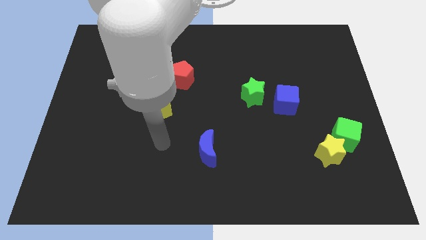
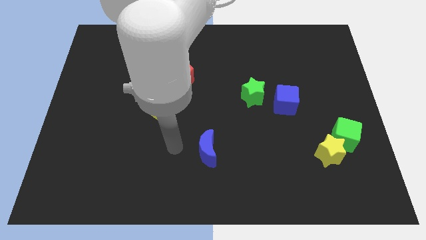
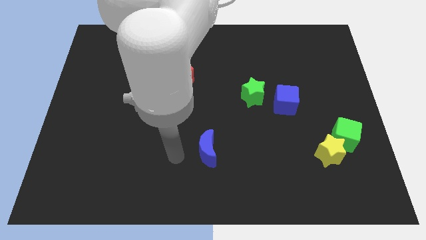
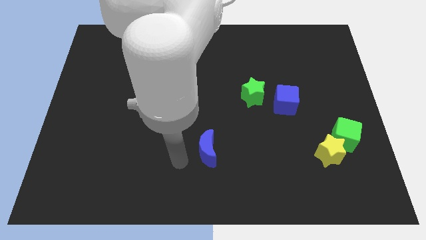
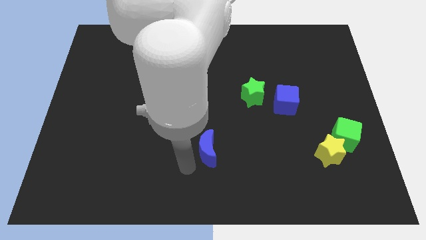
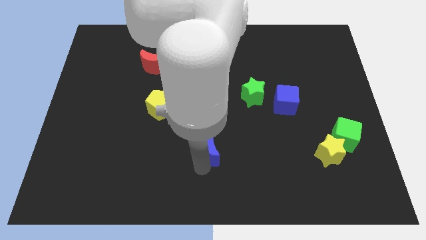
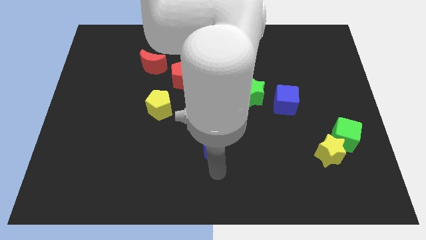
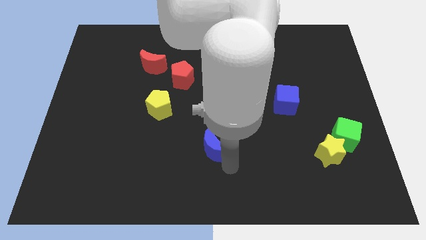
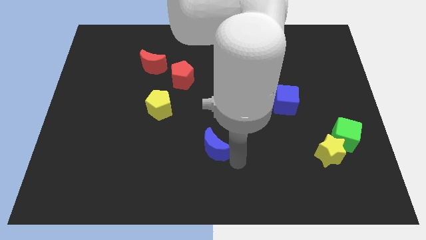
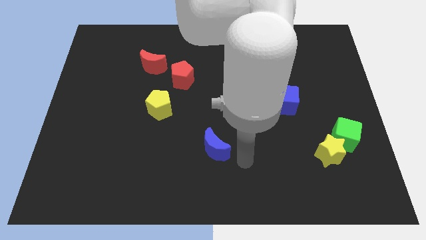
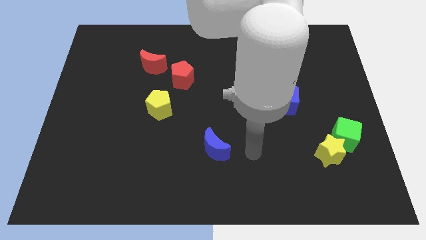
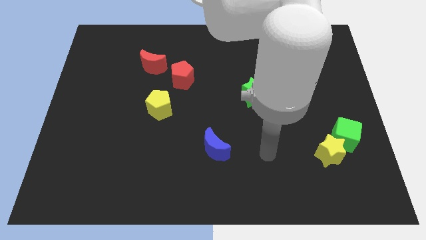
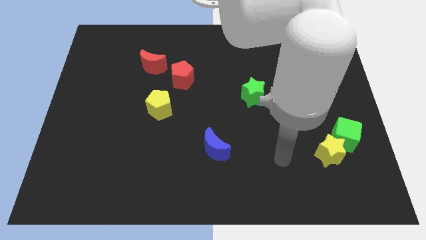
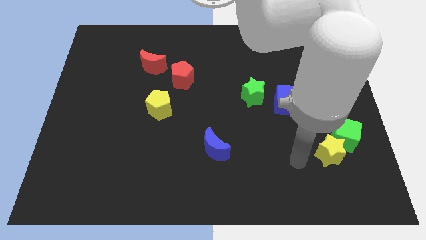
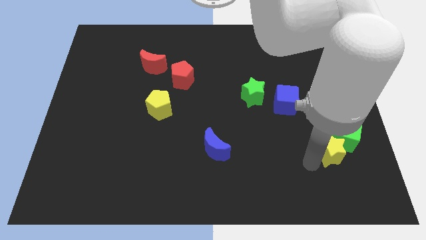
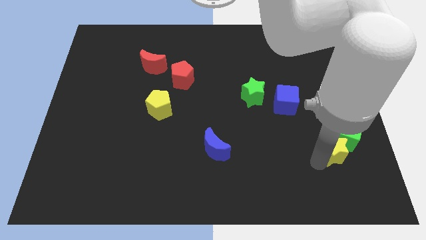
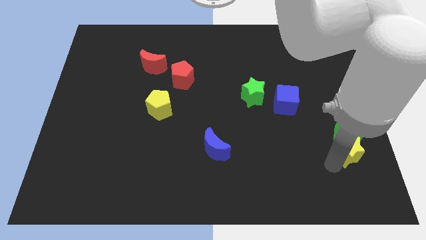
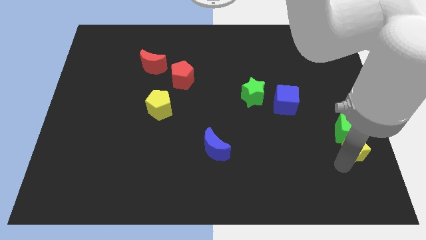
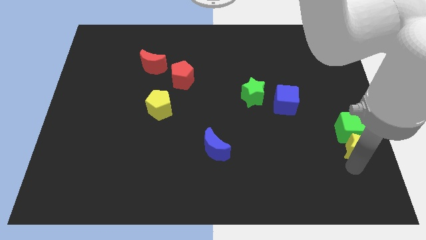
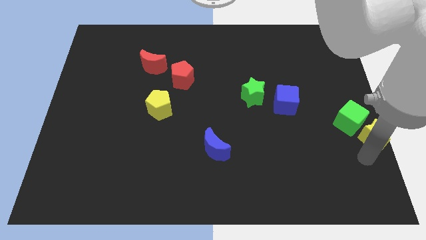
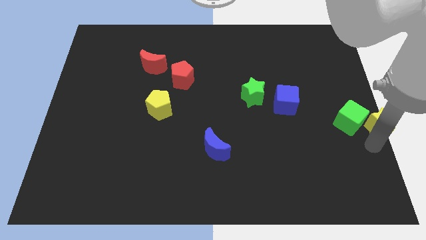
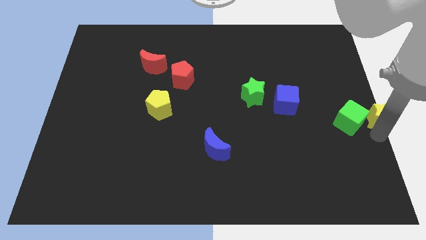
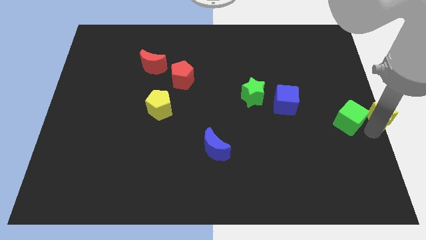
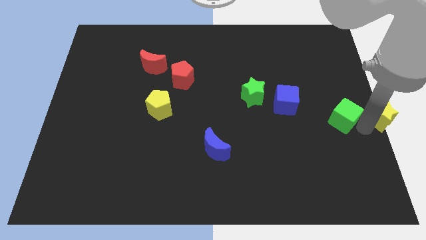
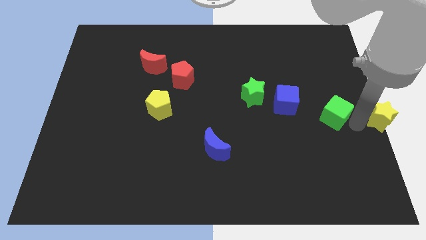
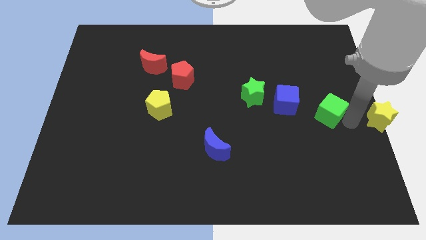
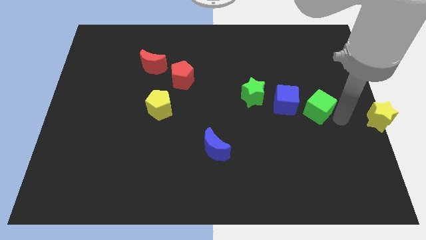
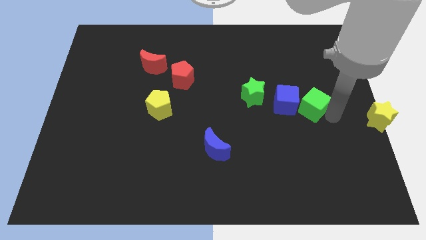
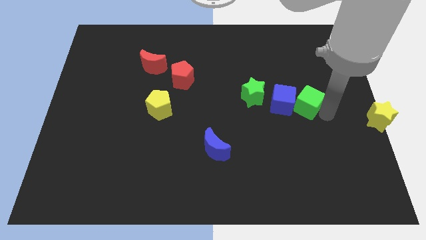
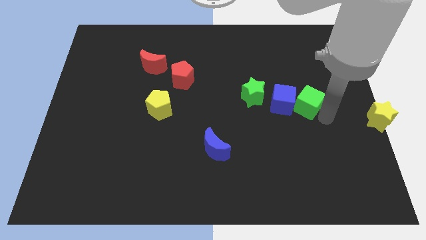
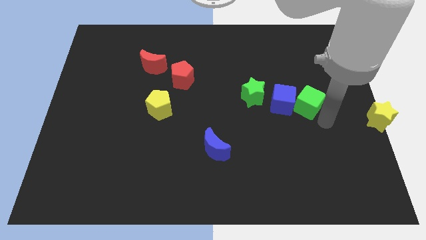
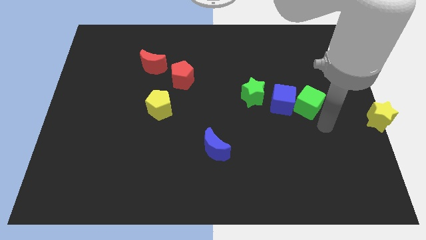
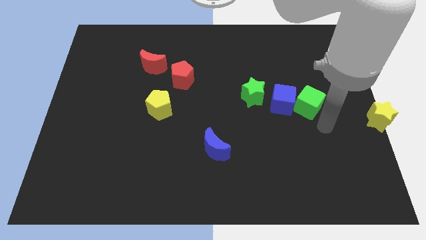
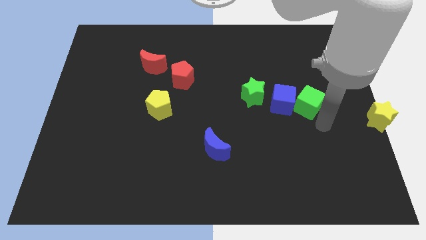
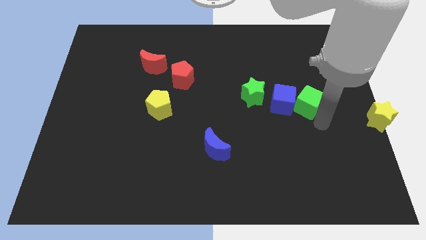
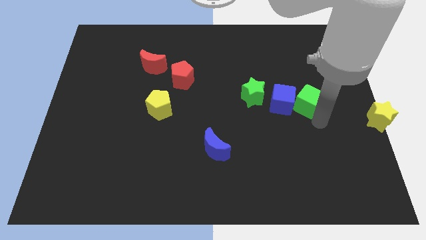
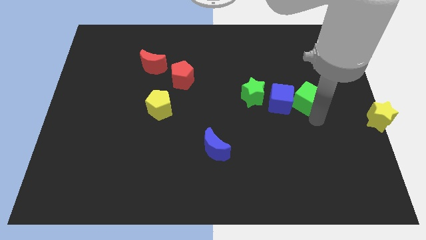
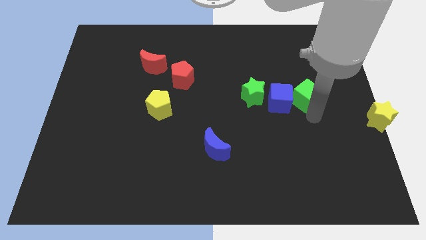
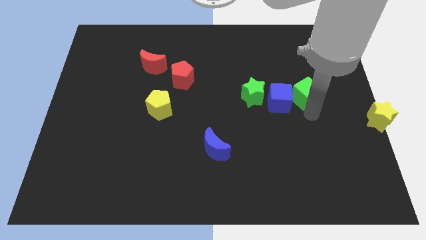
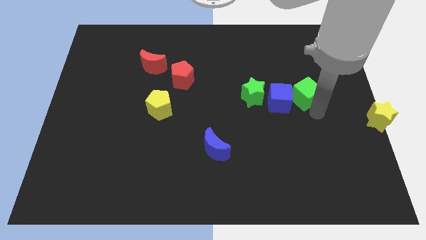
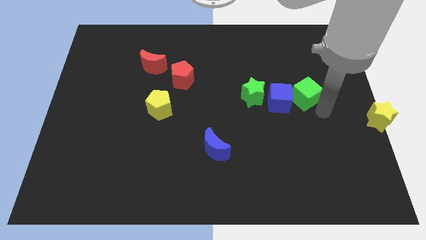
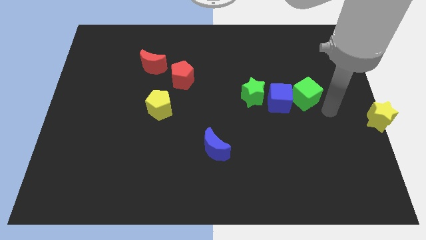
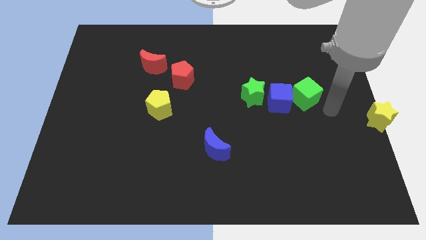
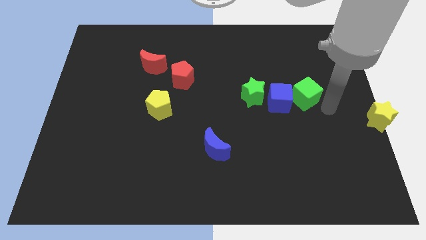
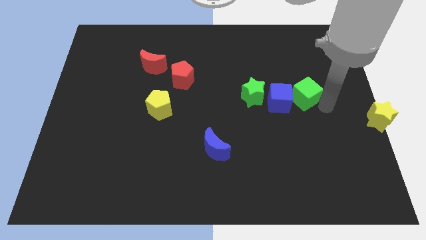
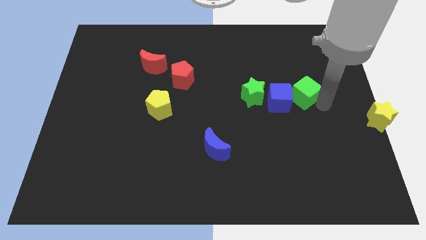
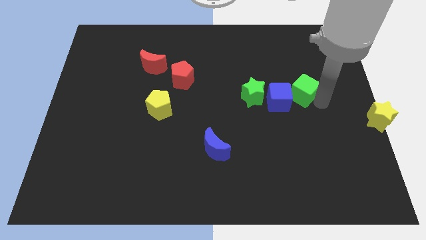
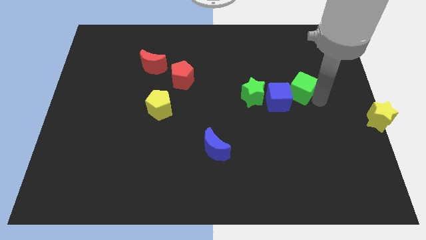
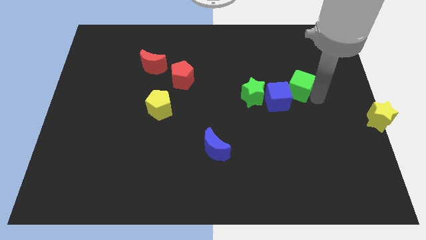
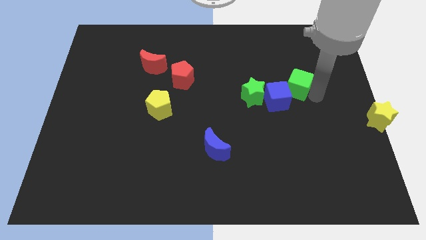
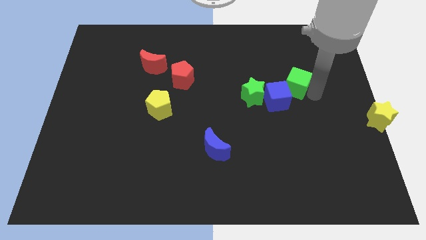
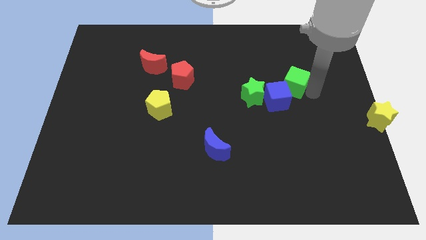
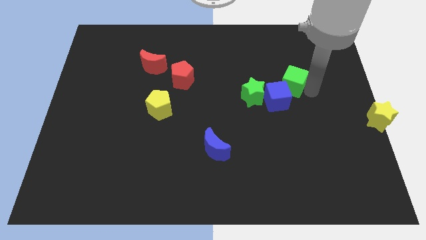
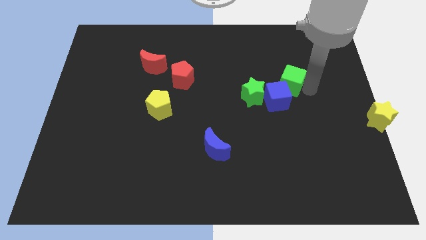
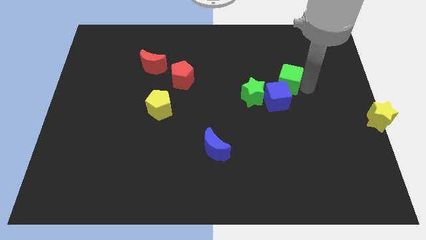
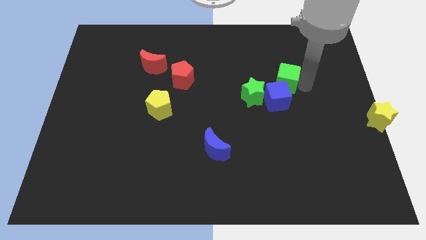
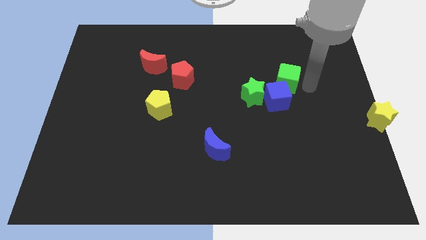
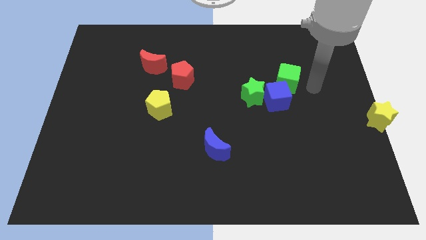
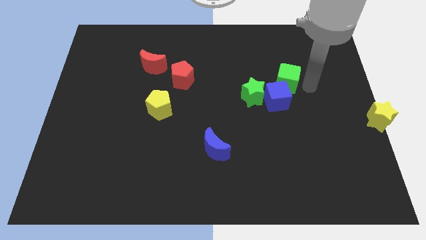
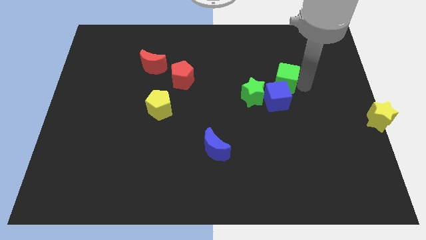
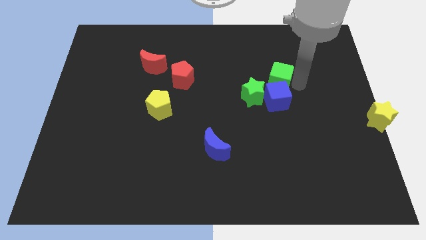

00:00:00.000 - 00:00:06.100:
slide the green cube upwards and to the left

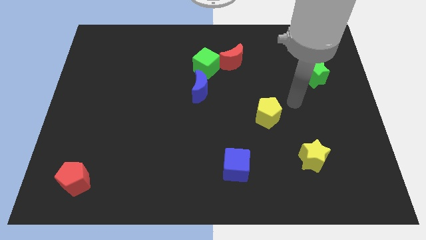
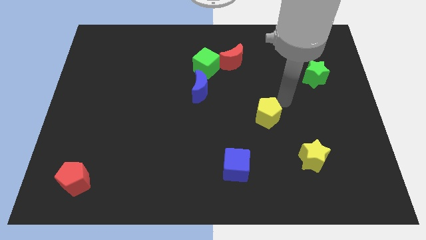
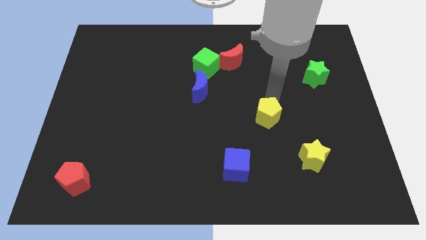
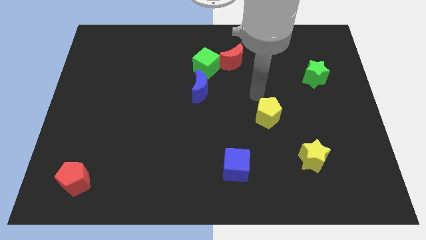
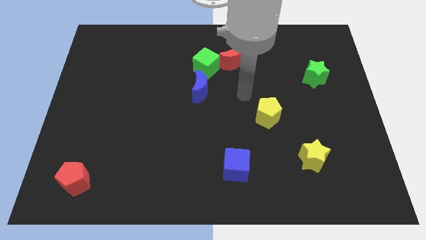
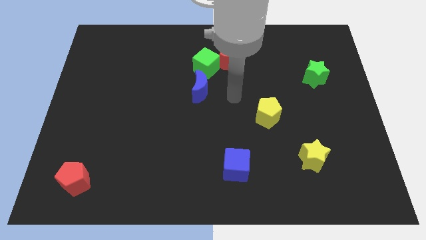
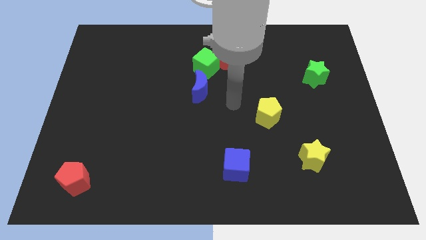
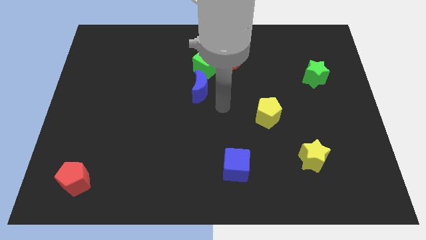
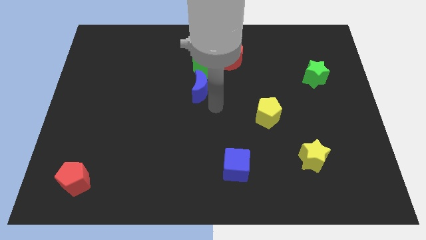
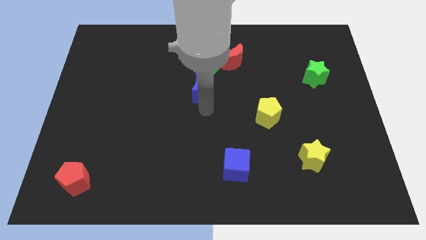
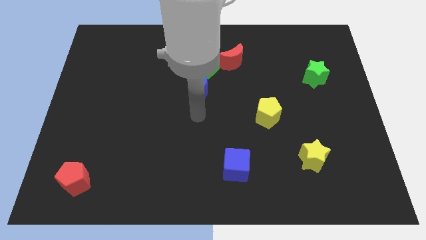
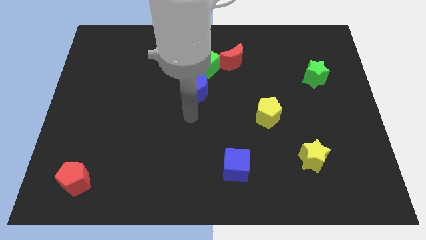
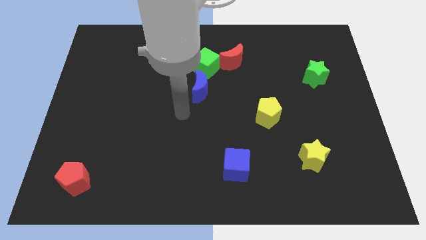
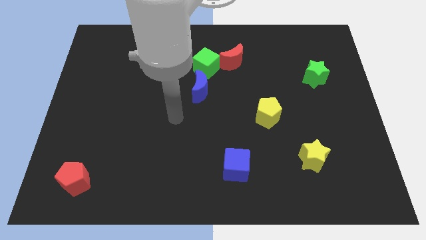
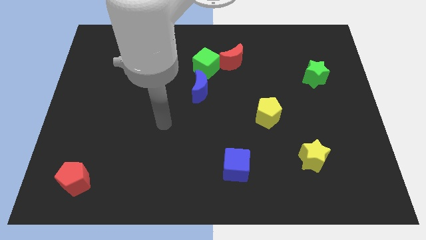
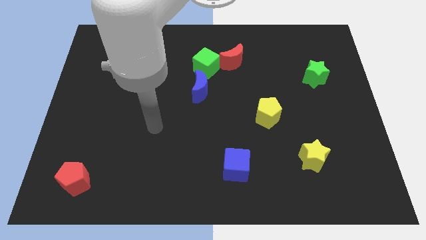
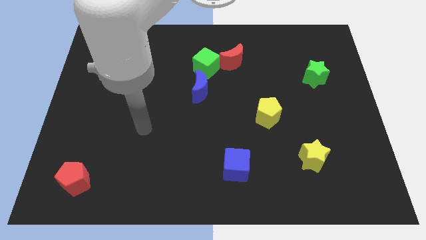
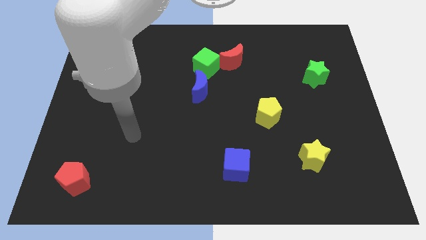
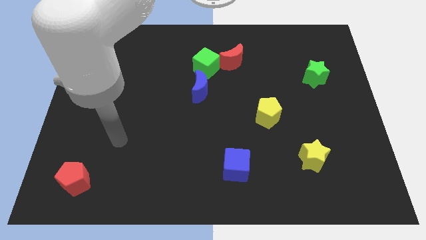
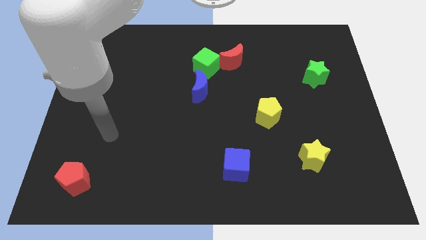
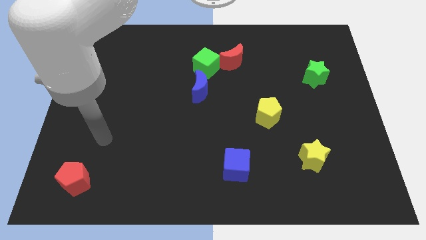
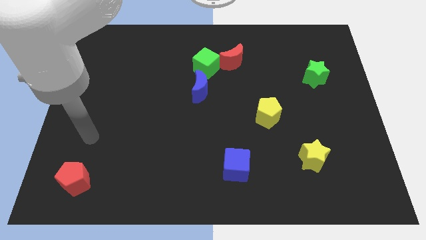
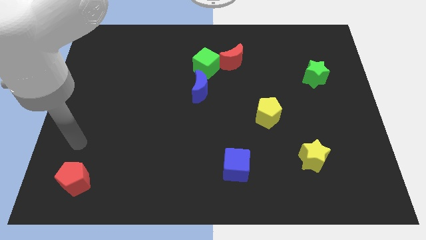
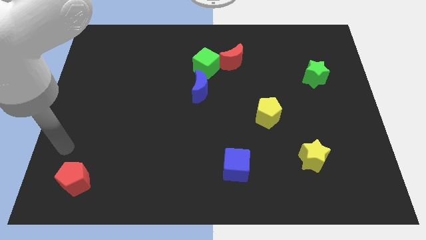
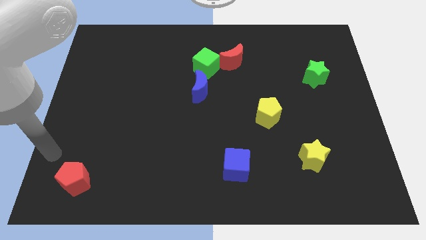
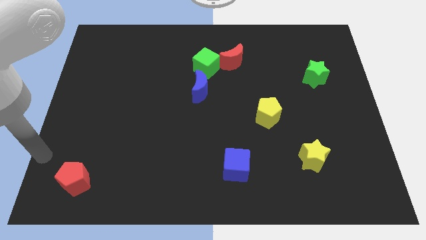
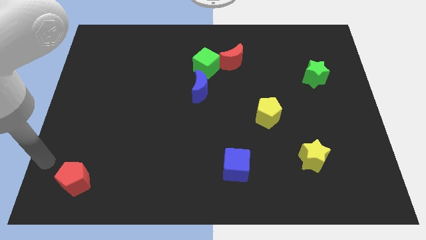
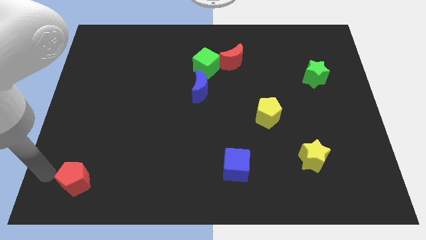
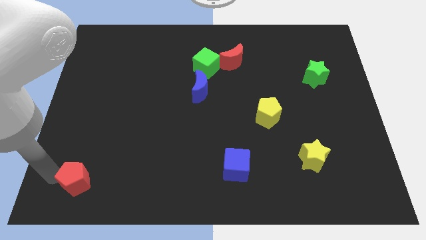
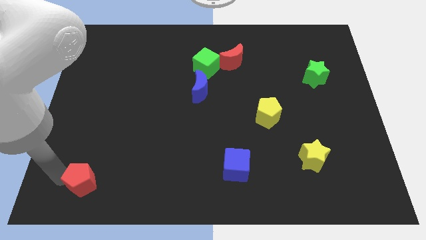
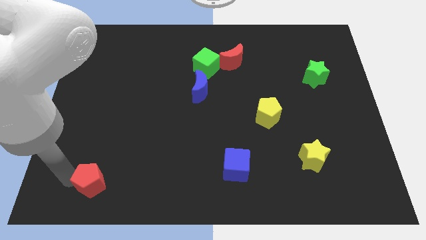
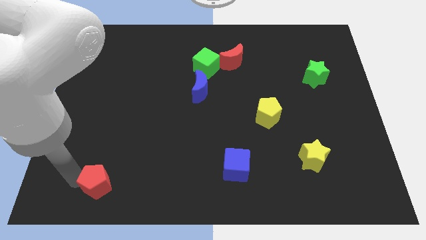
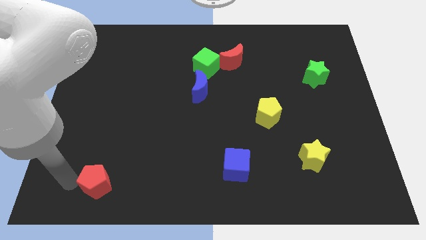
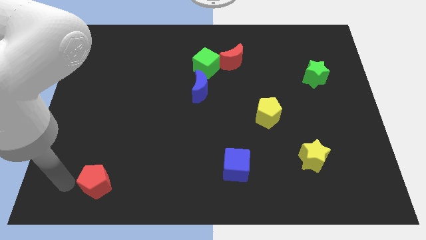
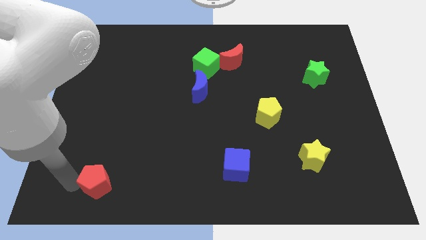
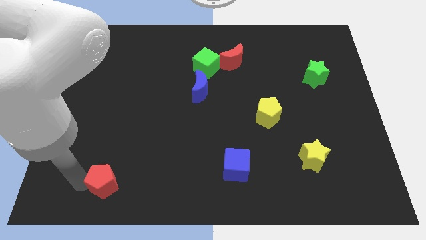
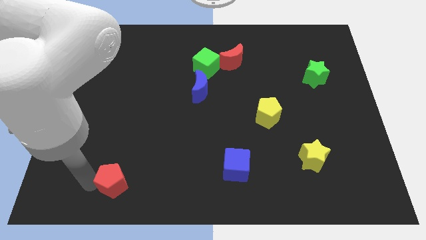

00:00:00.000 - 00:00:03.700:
slightly push the red pentagon right
